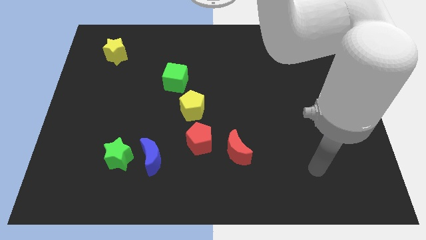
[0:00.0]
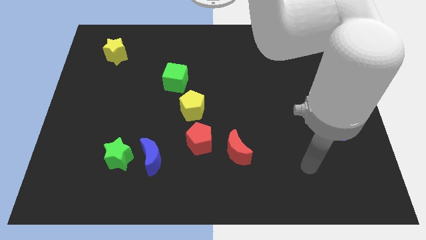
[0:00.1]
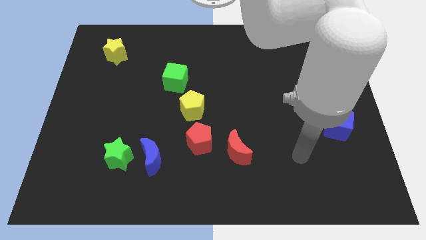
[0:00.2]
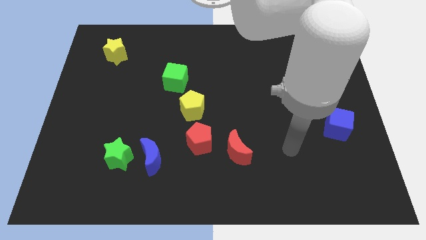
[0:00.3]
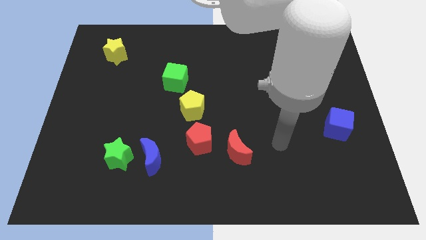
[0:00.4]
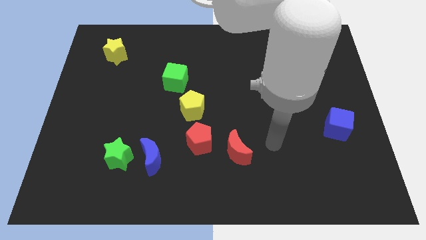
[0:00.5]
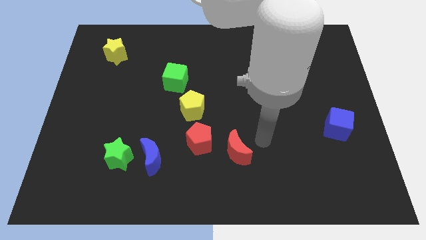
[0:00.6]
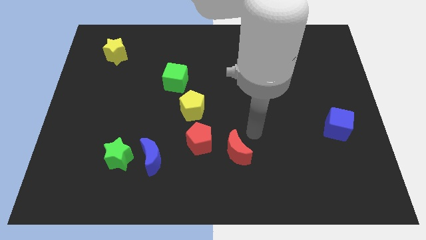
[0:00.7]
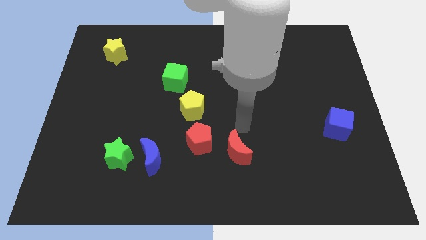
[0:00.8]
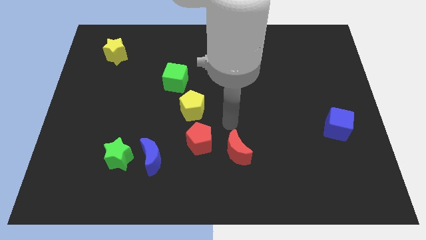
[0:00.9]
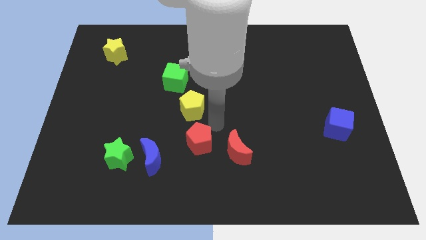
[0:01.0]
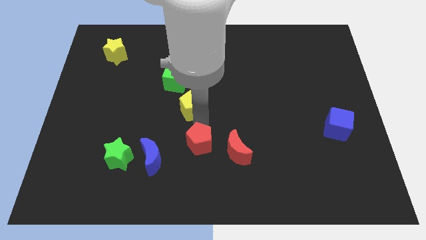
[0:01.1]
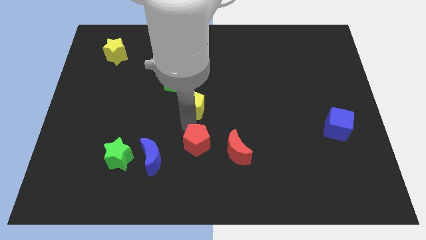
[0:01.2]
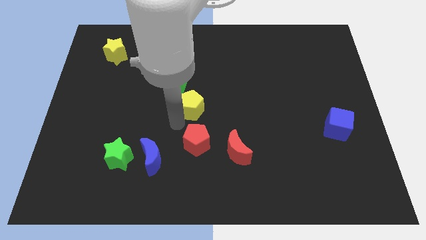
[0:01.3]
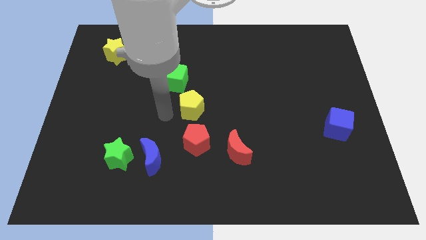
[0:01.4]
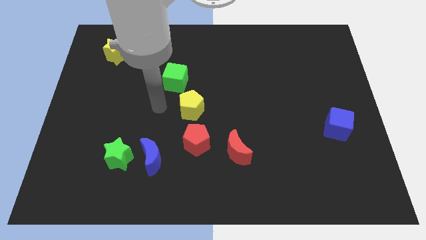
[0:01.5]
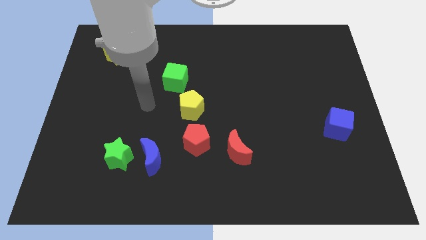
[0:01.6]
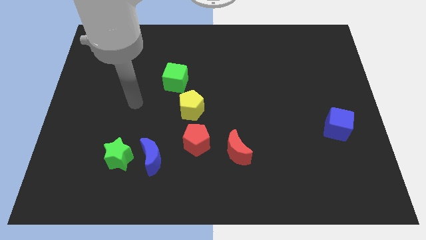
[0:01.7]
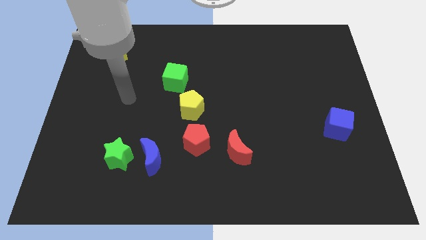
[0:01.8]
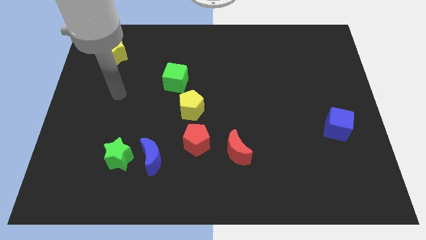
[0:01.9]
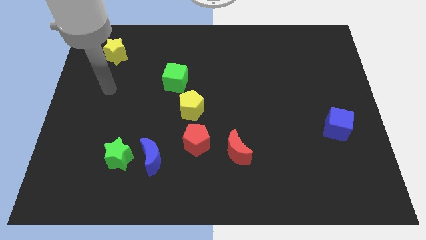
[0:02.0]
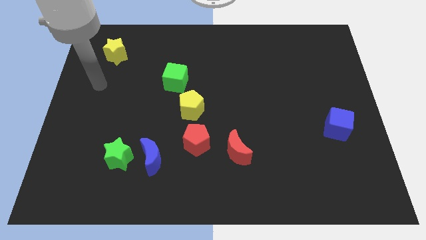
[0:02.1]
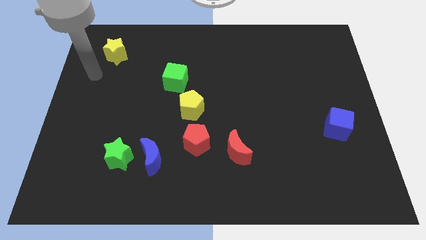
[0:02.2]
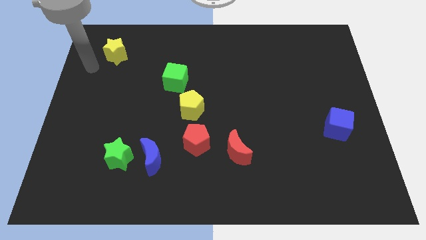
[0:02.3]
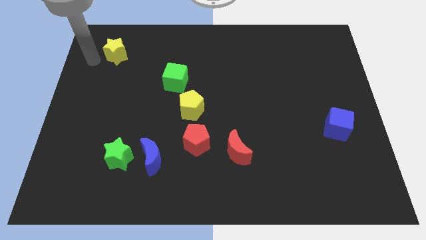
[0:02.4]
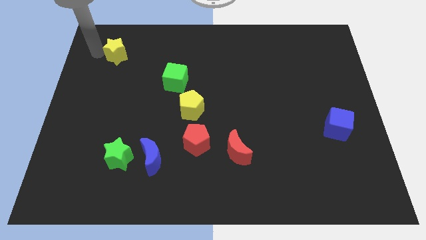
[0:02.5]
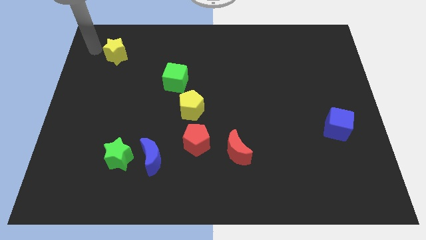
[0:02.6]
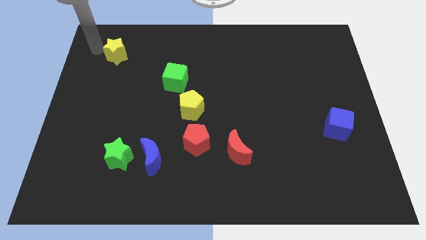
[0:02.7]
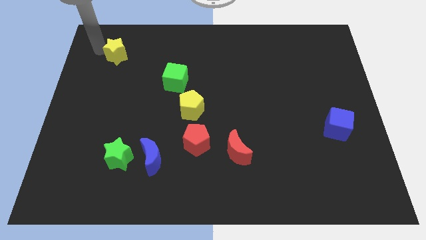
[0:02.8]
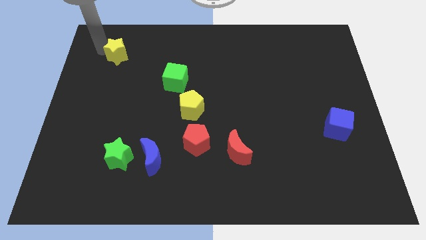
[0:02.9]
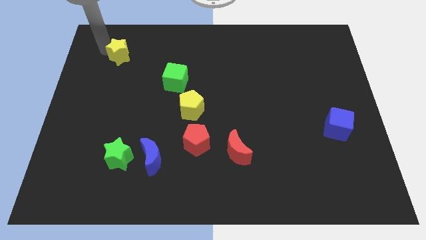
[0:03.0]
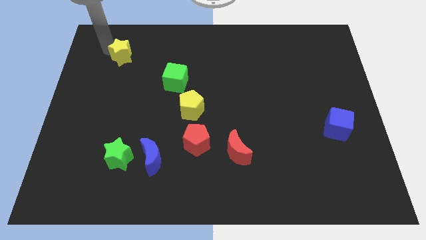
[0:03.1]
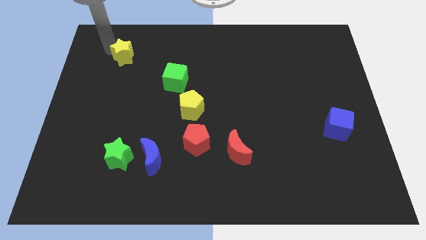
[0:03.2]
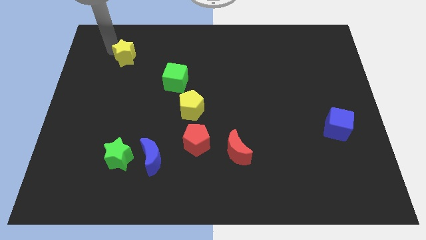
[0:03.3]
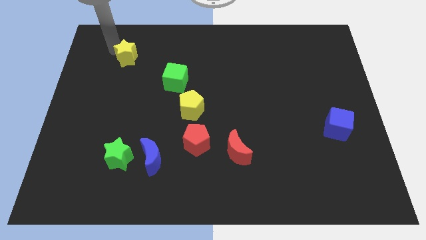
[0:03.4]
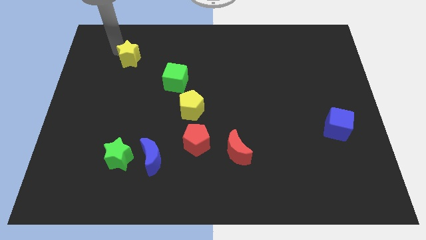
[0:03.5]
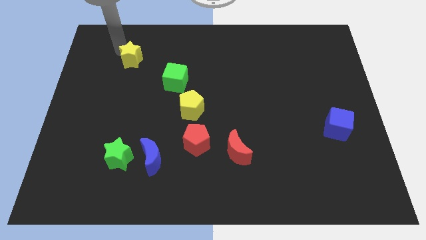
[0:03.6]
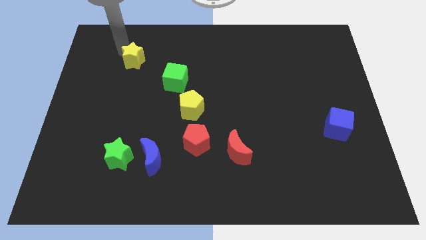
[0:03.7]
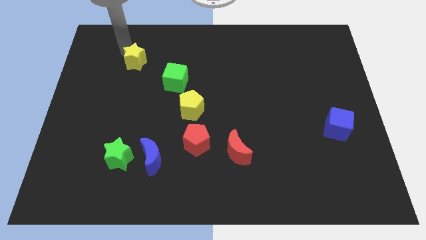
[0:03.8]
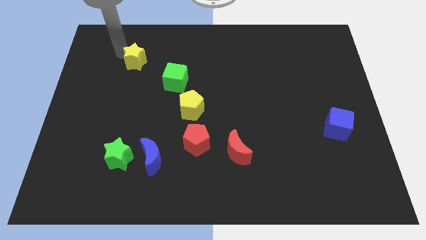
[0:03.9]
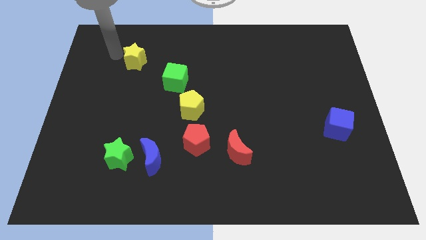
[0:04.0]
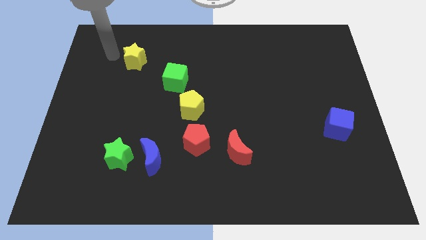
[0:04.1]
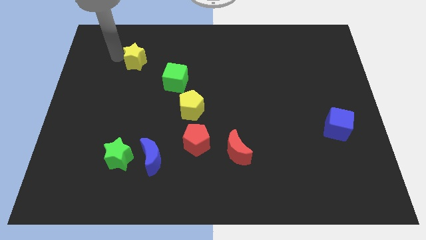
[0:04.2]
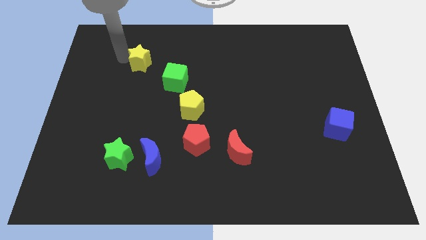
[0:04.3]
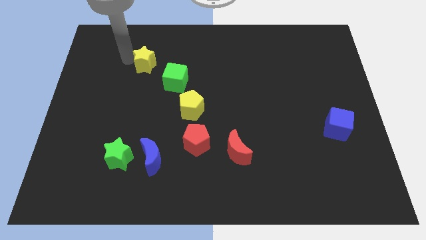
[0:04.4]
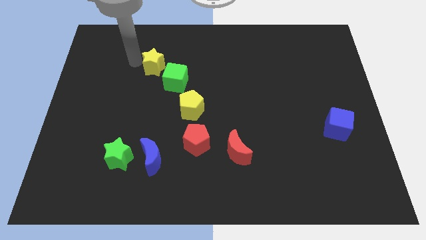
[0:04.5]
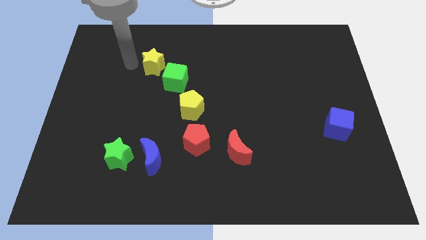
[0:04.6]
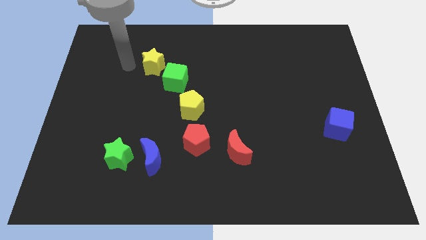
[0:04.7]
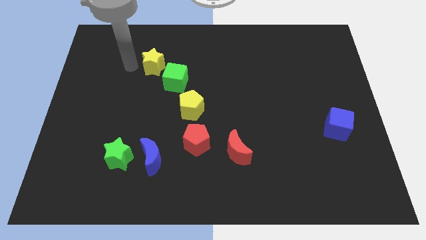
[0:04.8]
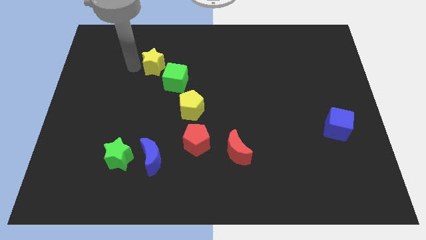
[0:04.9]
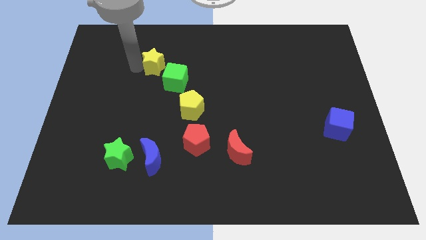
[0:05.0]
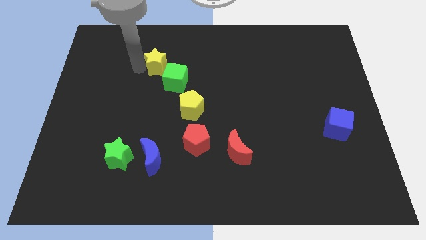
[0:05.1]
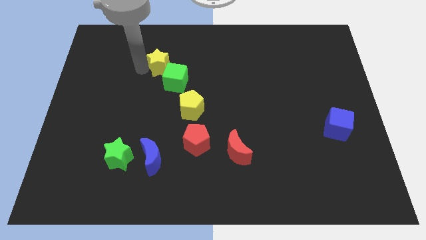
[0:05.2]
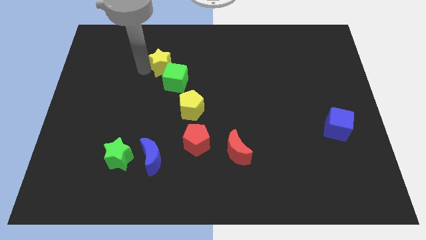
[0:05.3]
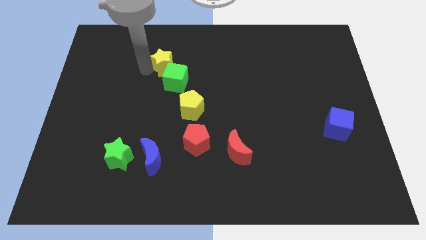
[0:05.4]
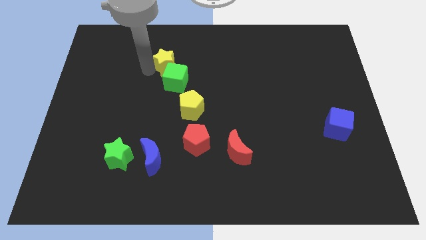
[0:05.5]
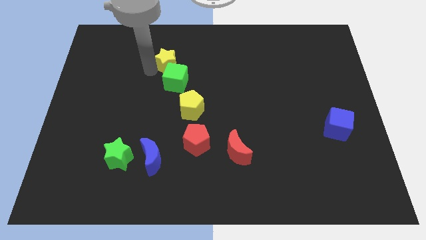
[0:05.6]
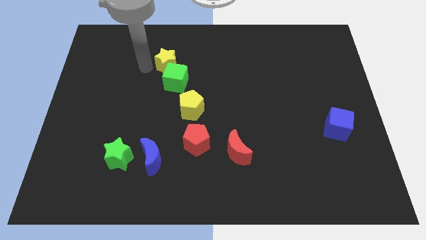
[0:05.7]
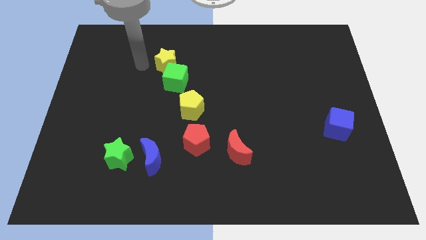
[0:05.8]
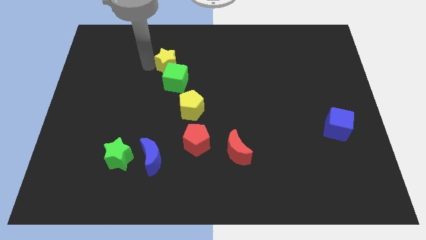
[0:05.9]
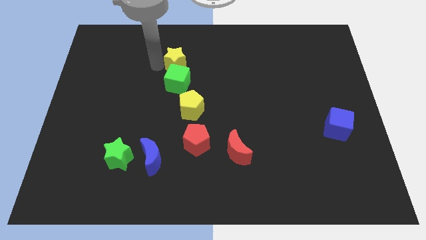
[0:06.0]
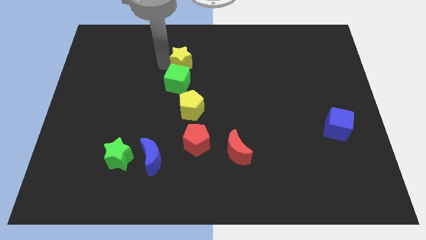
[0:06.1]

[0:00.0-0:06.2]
move the yellow star to the top right side of the green cube

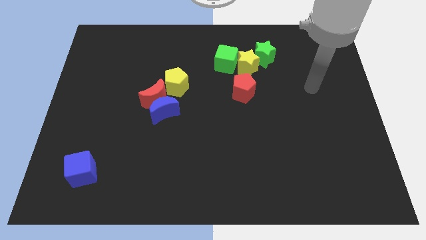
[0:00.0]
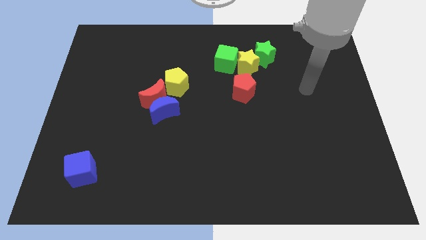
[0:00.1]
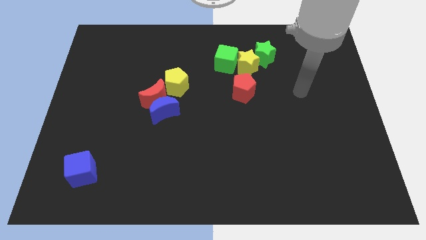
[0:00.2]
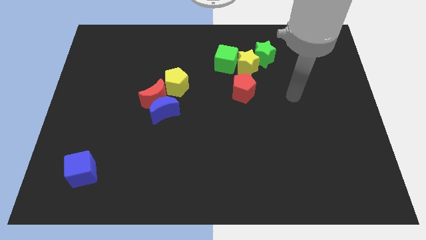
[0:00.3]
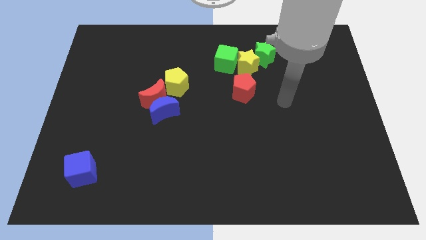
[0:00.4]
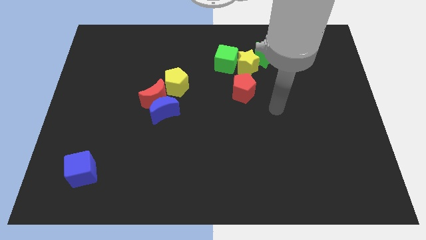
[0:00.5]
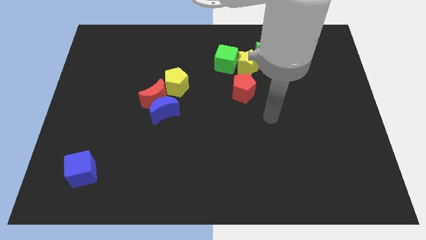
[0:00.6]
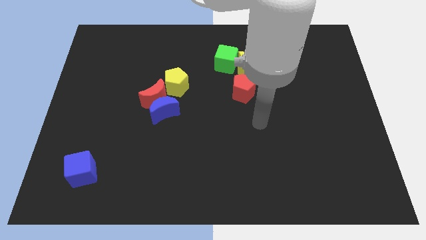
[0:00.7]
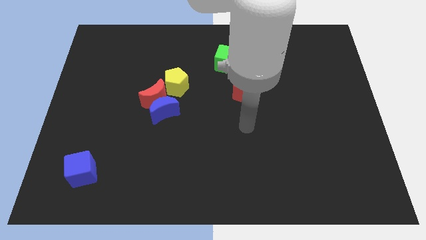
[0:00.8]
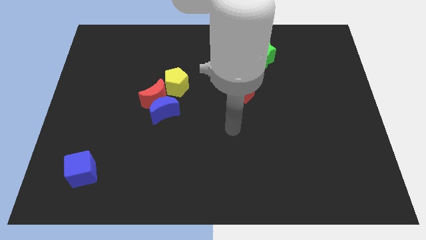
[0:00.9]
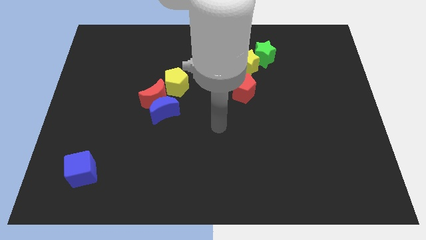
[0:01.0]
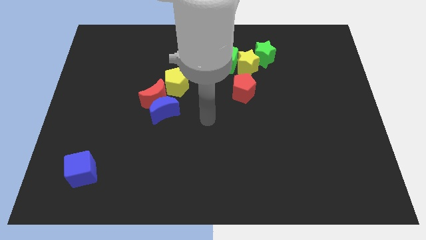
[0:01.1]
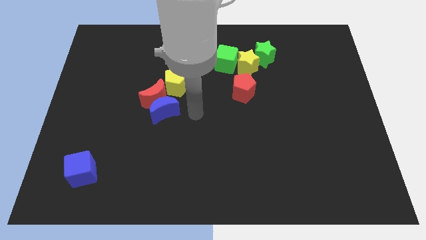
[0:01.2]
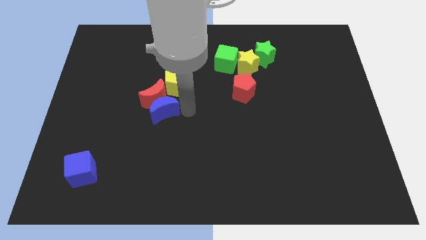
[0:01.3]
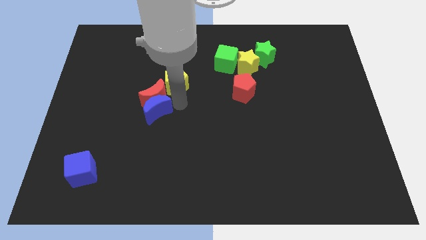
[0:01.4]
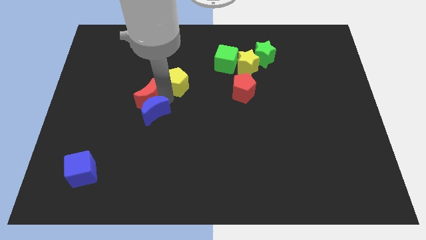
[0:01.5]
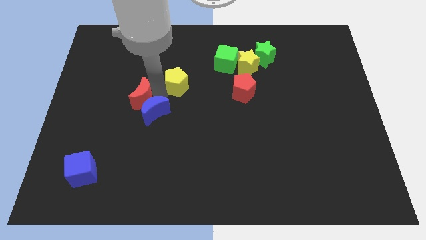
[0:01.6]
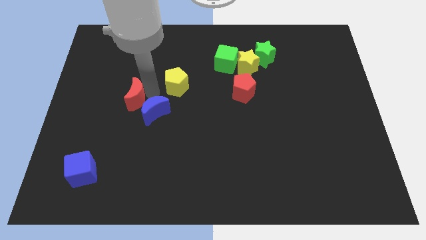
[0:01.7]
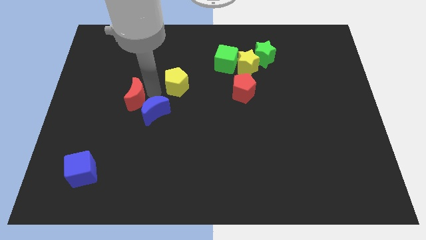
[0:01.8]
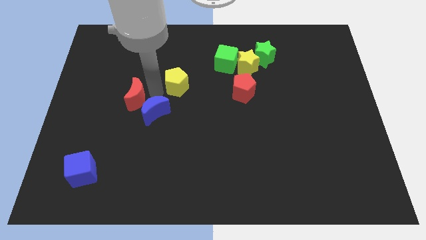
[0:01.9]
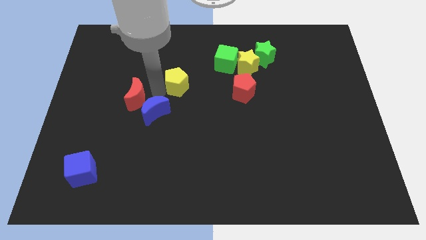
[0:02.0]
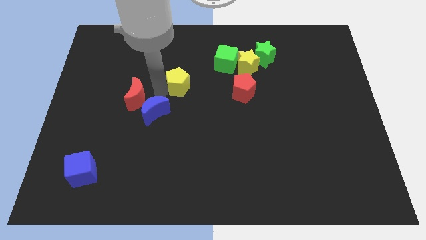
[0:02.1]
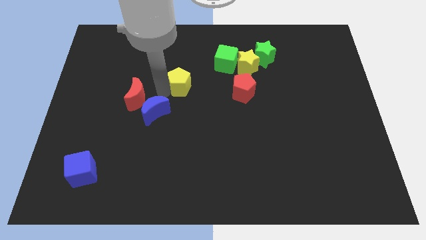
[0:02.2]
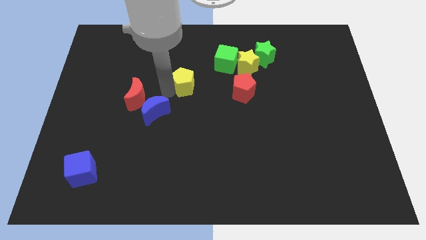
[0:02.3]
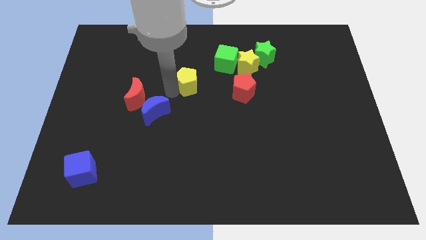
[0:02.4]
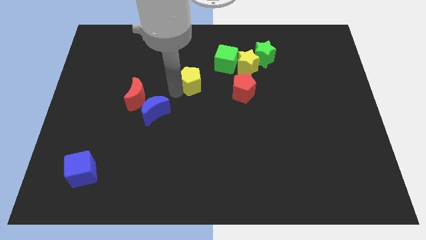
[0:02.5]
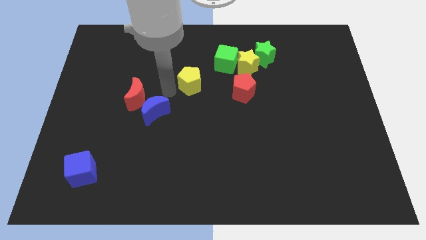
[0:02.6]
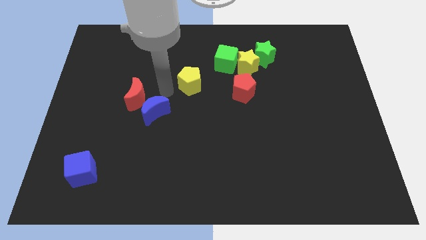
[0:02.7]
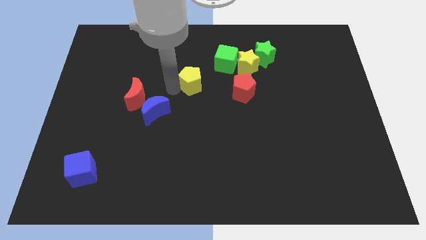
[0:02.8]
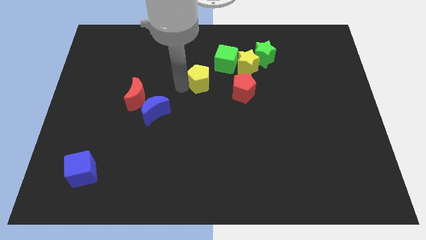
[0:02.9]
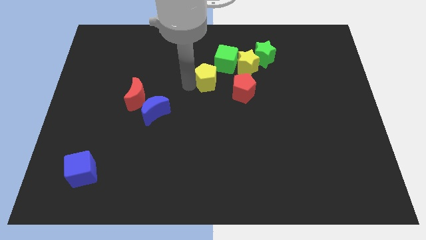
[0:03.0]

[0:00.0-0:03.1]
push the yellow pentagon to the top left side of the red pentagon
